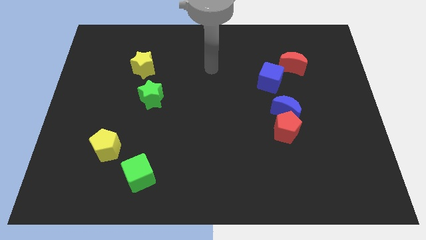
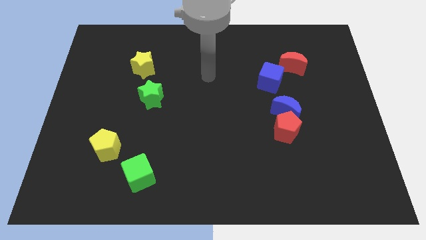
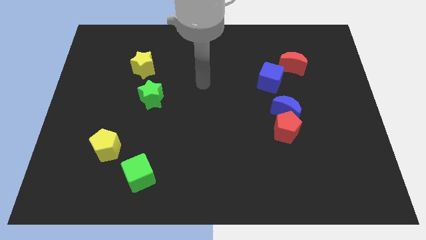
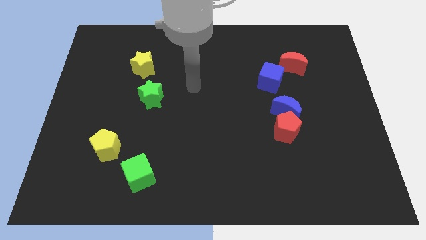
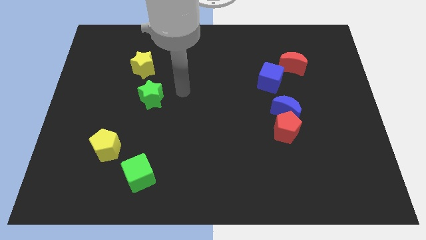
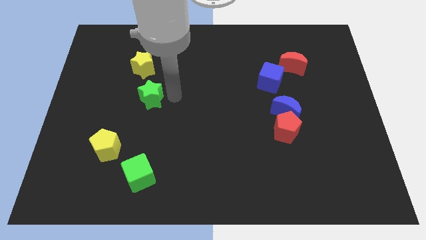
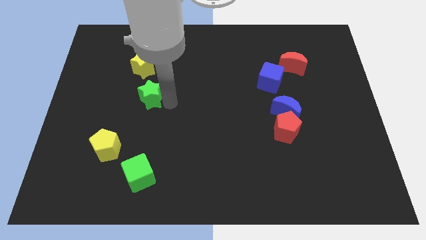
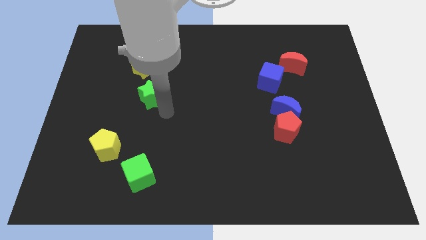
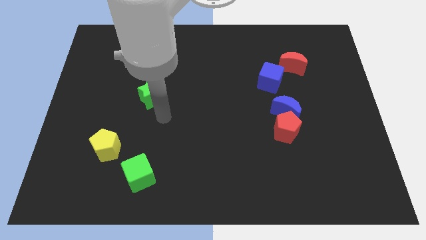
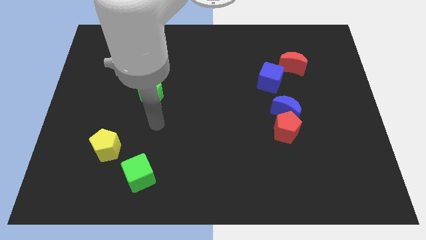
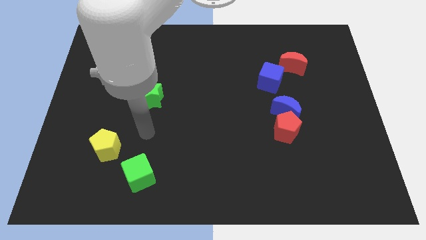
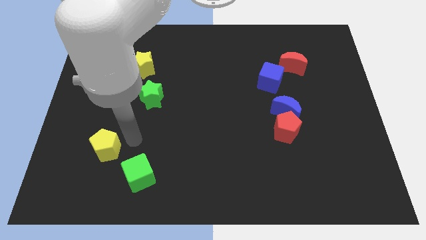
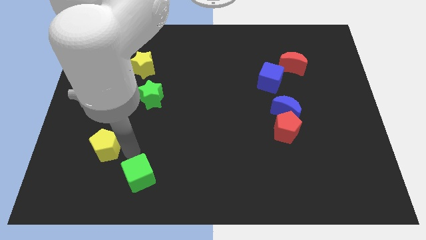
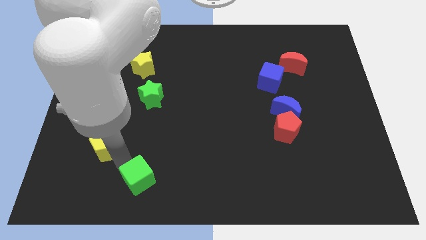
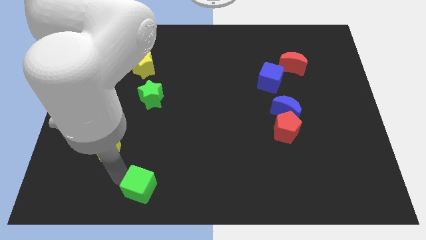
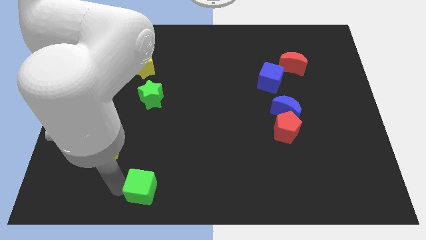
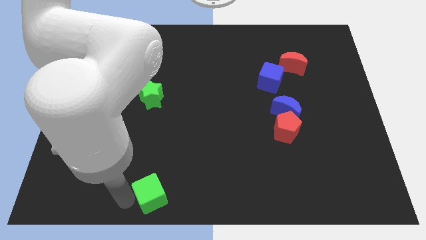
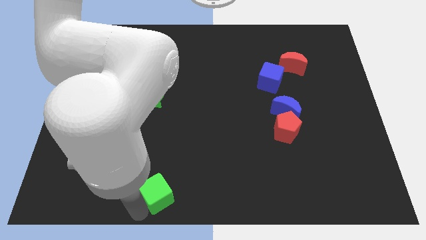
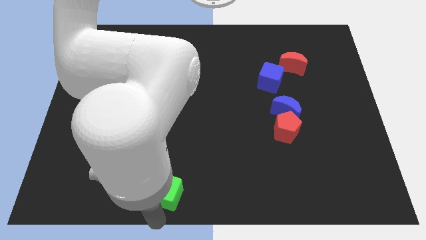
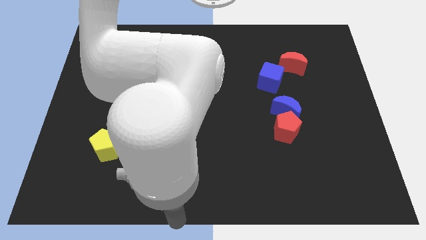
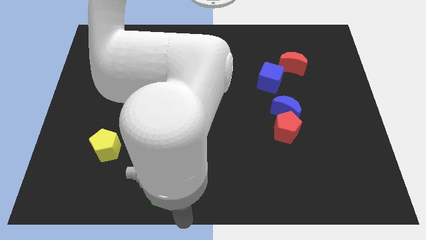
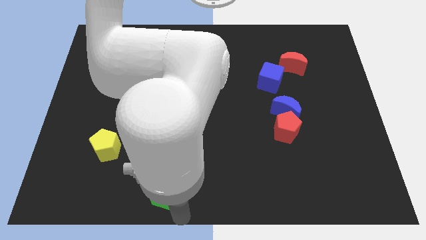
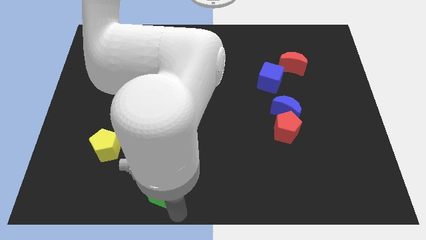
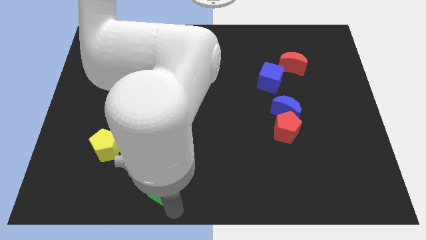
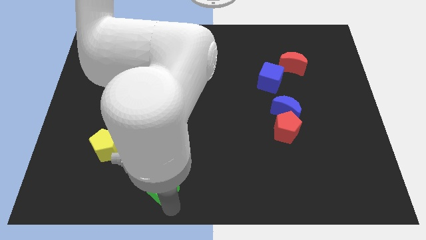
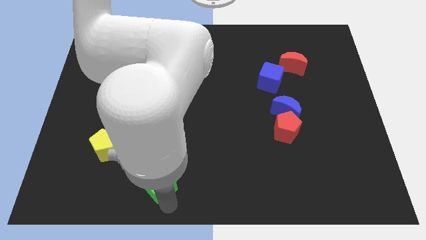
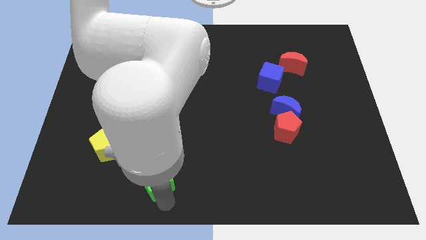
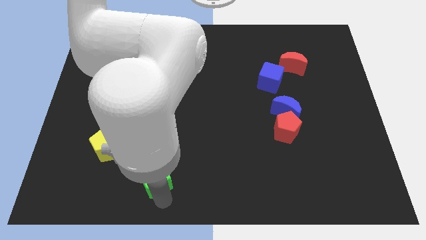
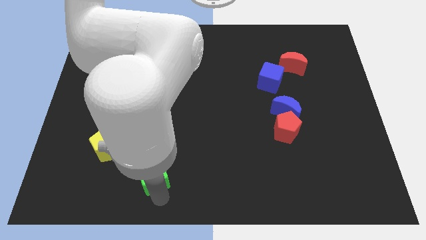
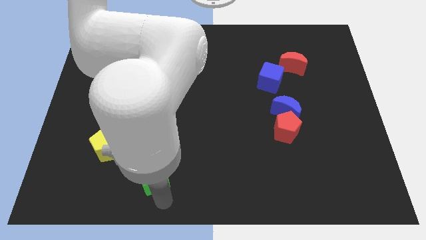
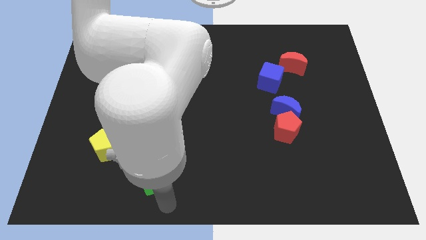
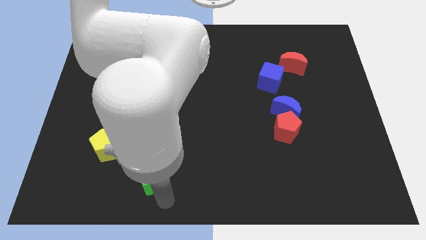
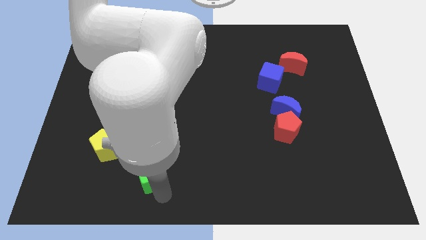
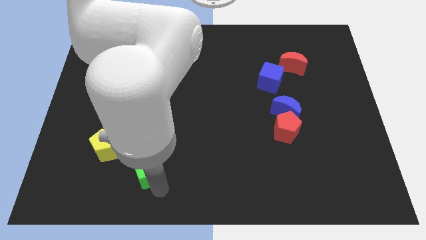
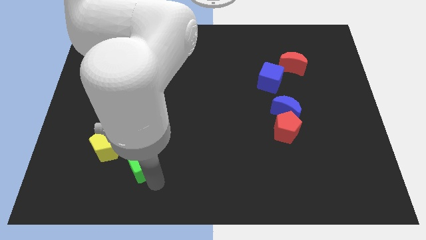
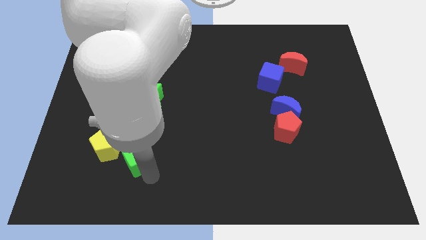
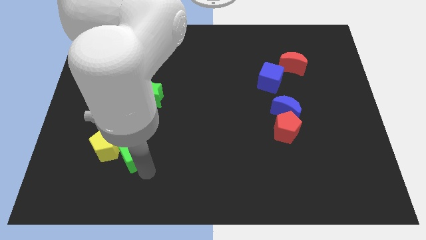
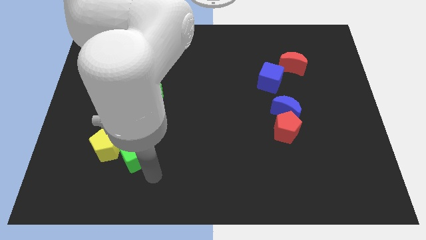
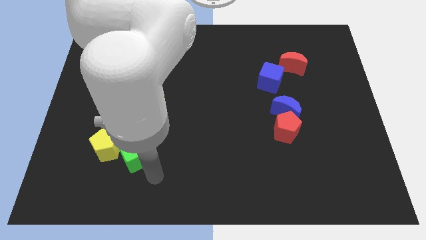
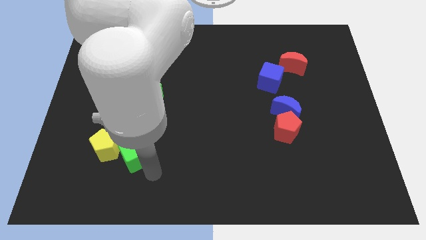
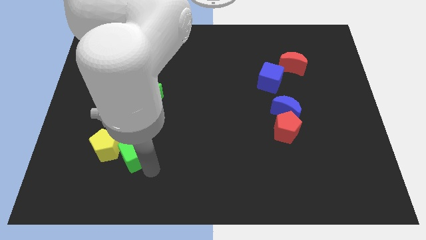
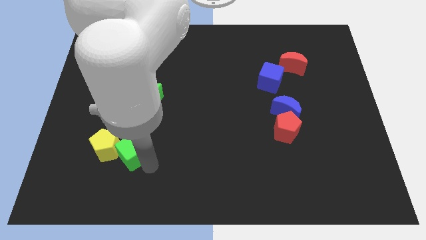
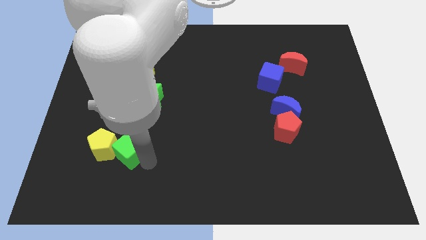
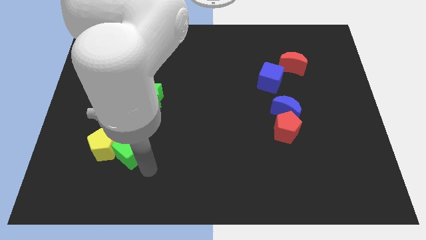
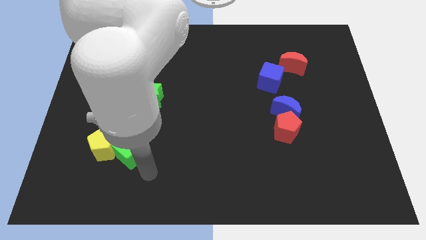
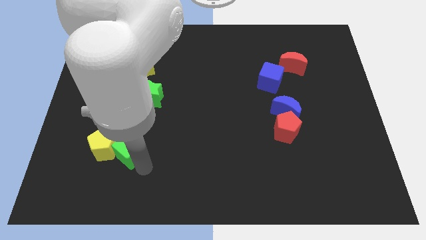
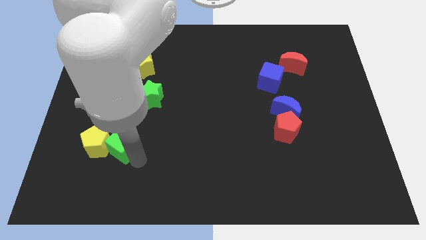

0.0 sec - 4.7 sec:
push the green cube up and to the left a little bit

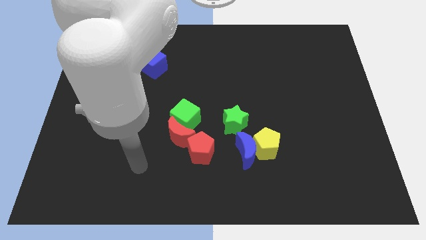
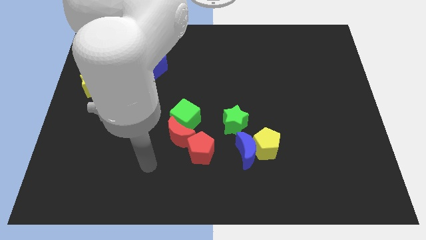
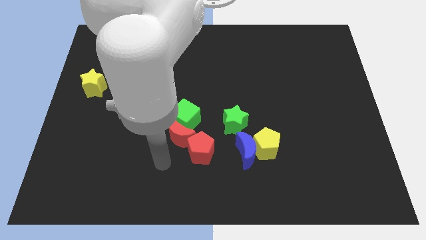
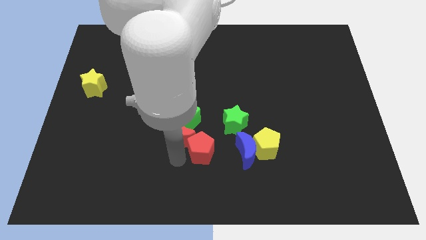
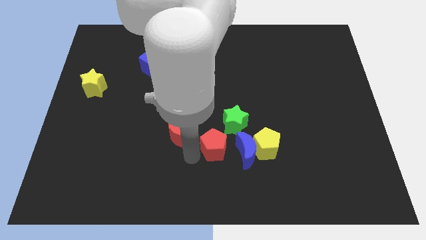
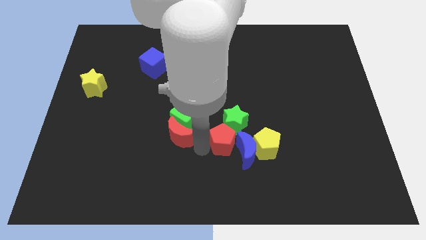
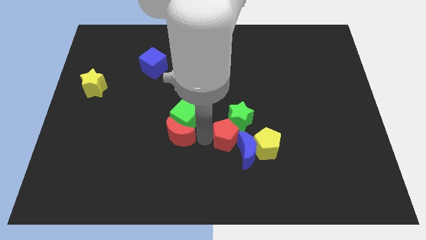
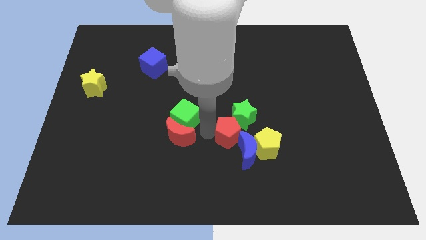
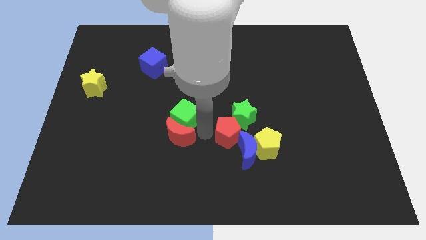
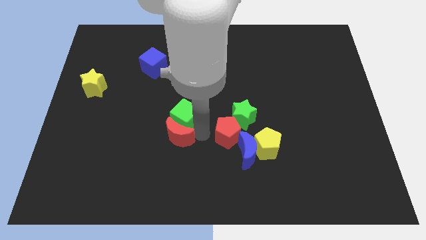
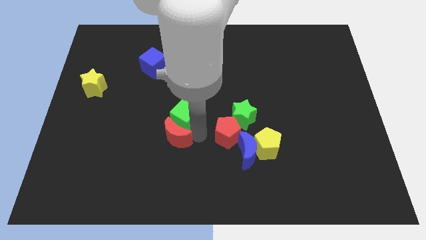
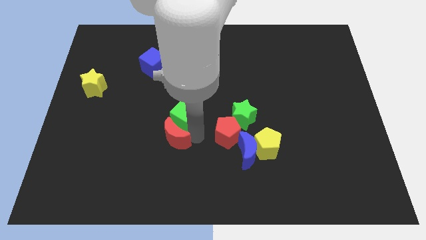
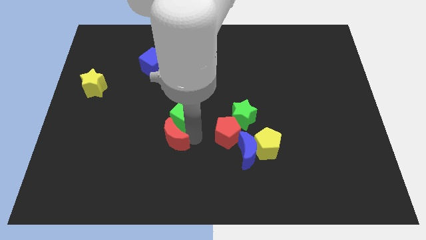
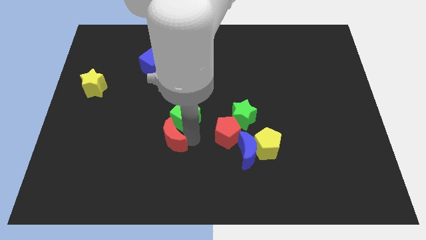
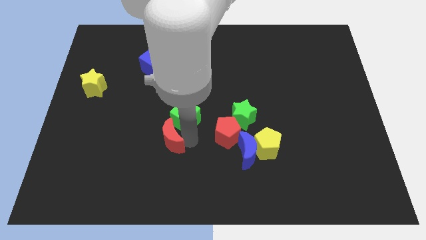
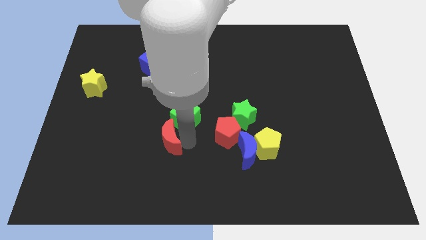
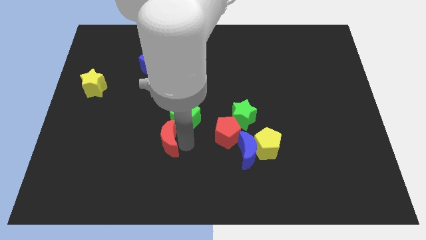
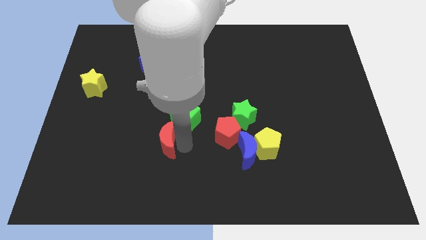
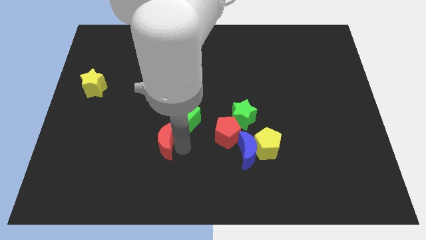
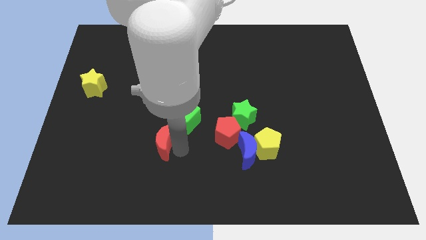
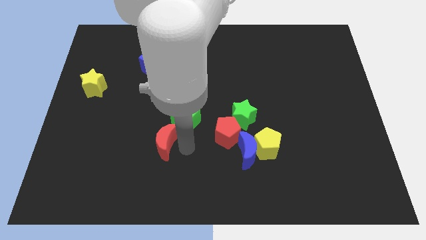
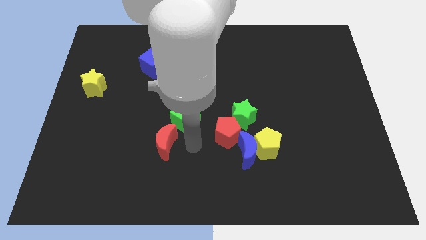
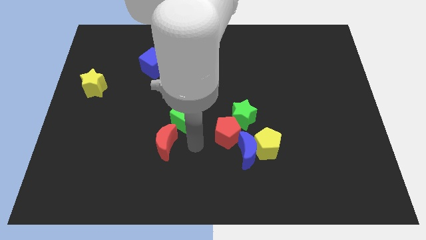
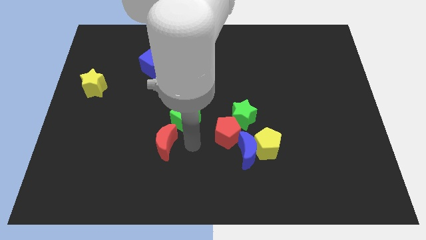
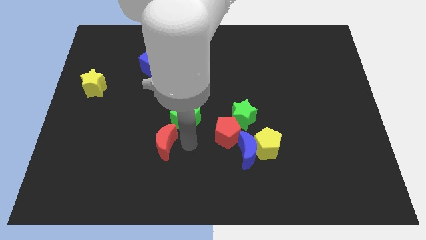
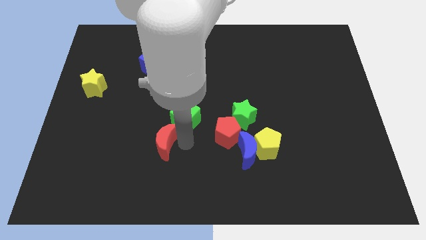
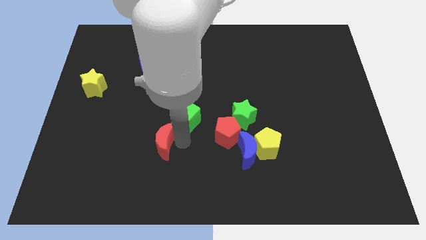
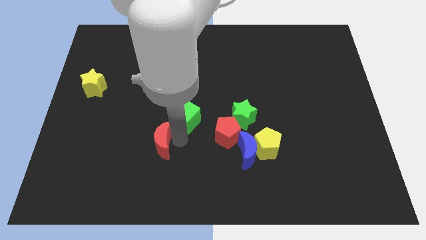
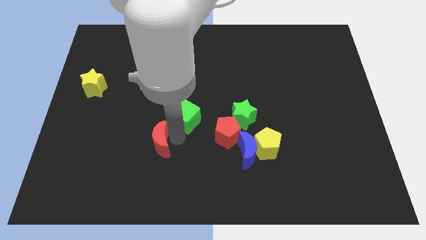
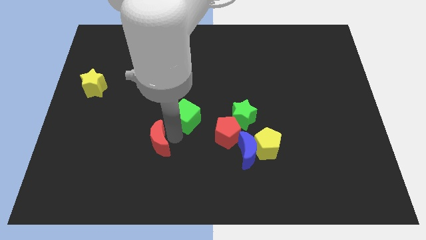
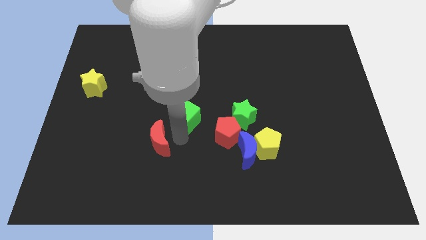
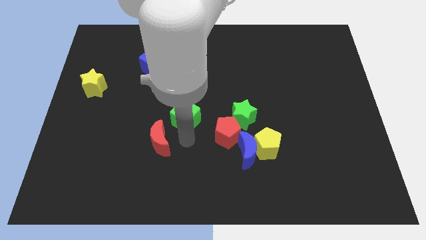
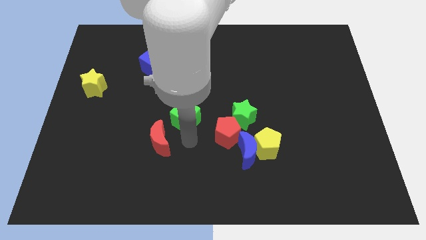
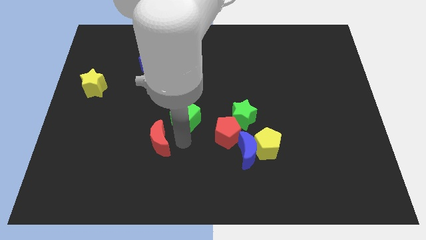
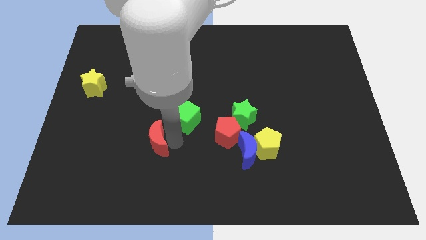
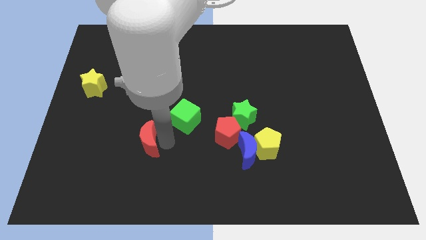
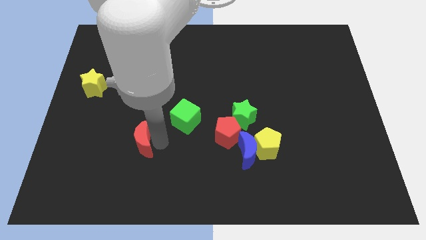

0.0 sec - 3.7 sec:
push the red moon left slightly

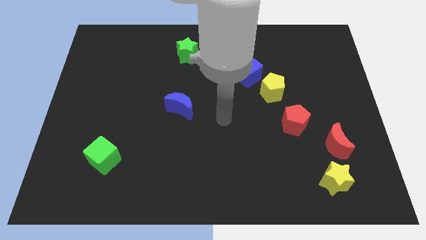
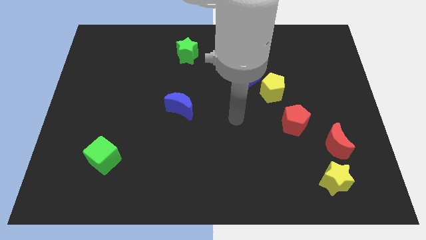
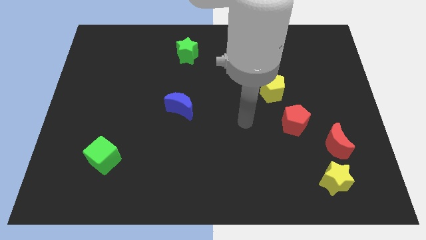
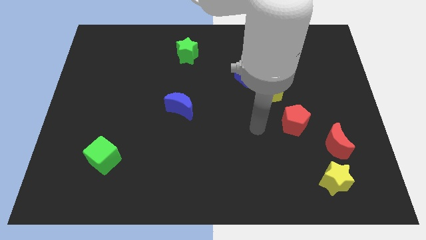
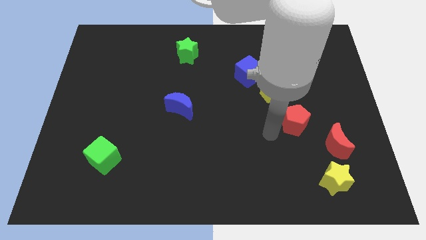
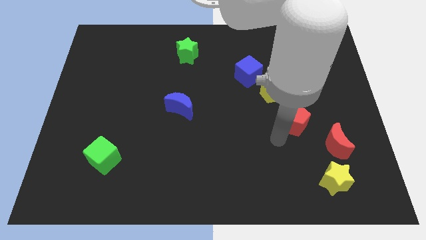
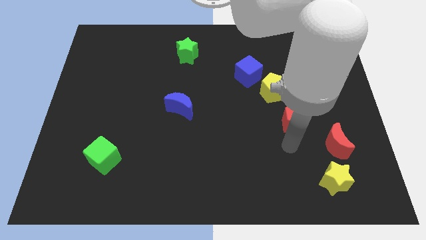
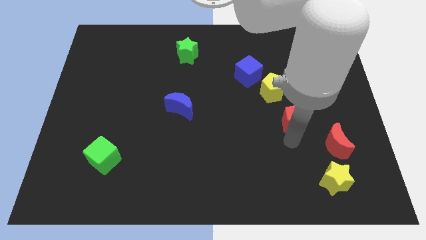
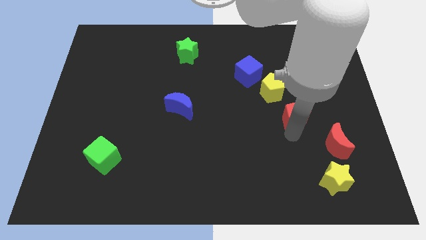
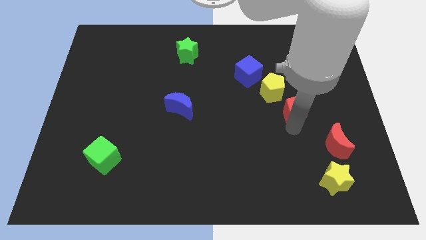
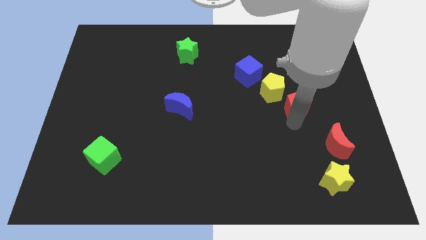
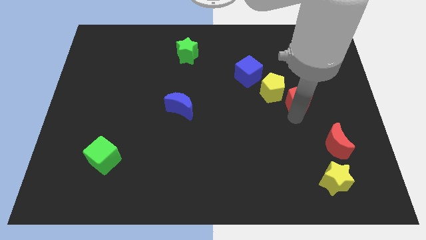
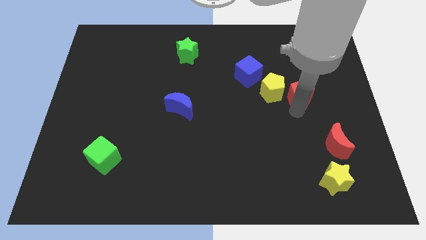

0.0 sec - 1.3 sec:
slide the red pentagon up somewhat
